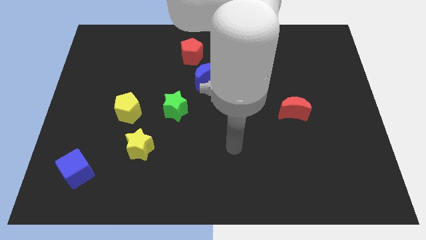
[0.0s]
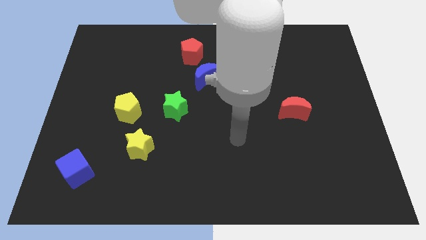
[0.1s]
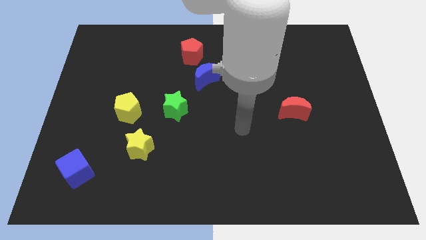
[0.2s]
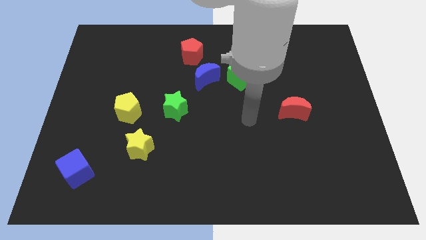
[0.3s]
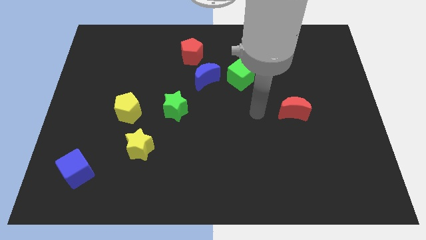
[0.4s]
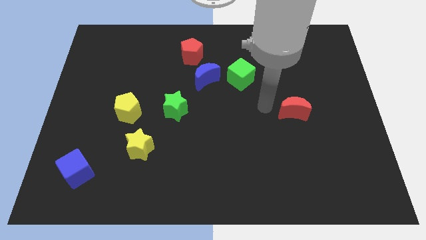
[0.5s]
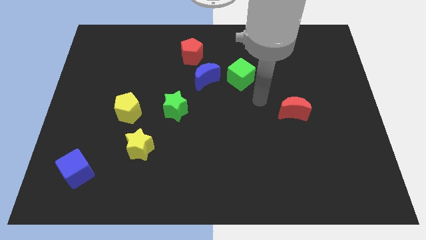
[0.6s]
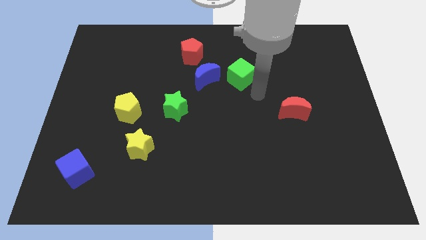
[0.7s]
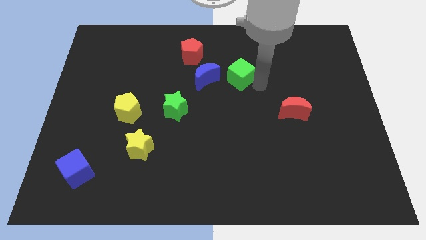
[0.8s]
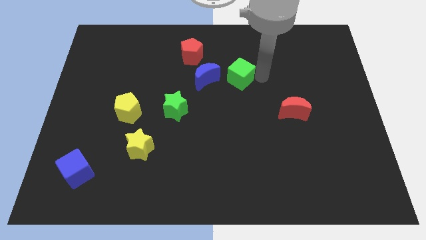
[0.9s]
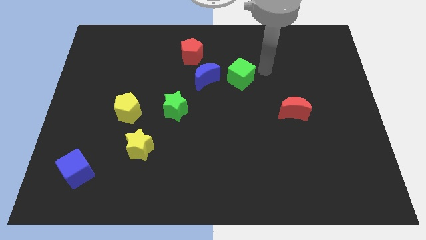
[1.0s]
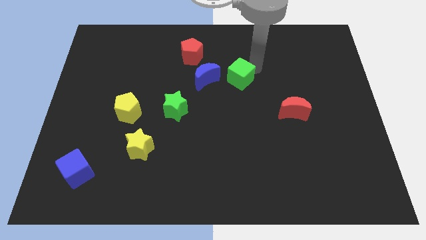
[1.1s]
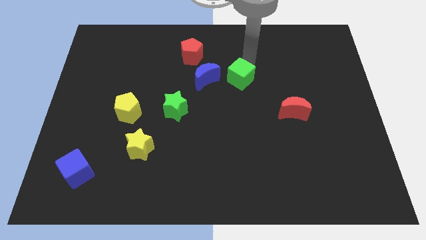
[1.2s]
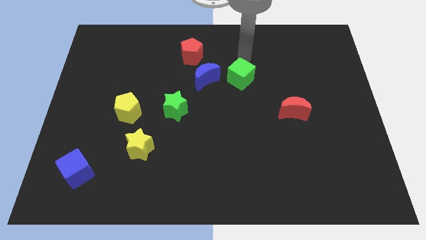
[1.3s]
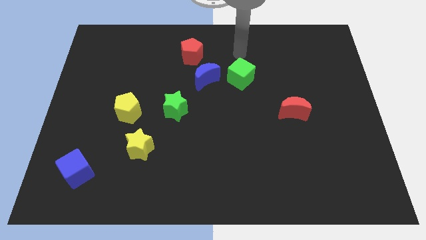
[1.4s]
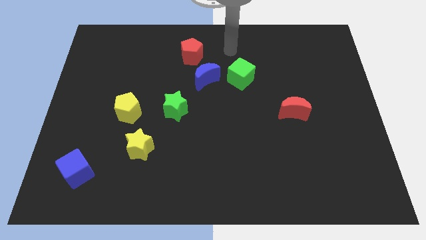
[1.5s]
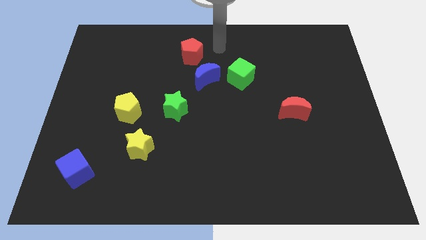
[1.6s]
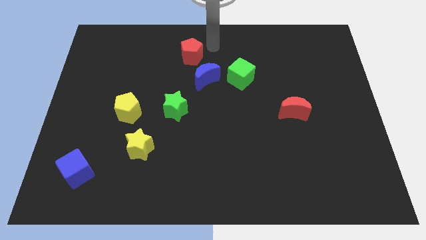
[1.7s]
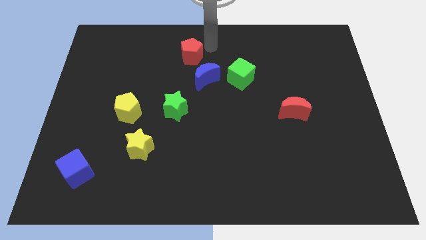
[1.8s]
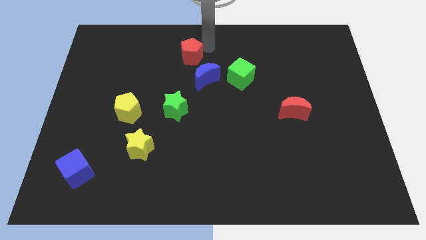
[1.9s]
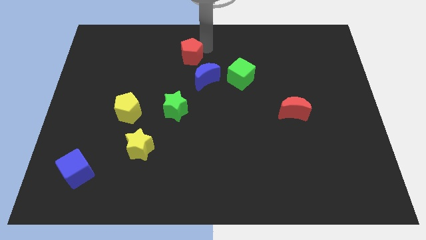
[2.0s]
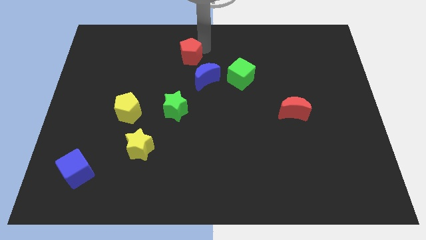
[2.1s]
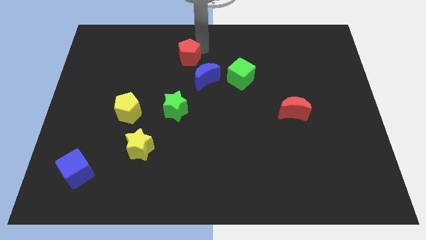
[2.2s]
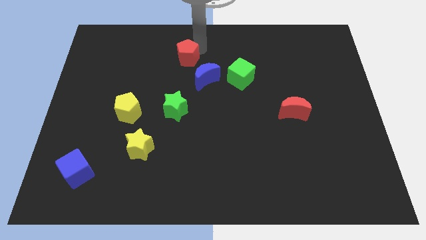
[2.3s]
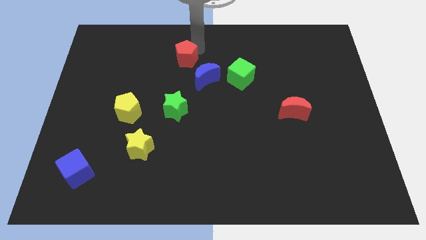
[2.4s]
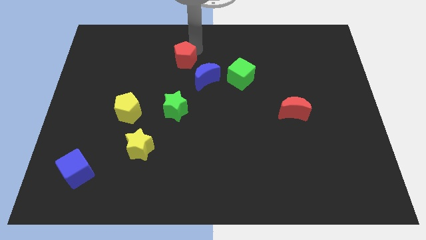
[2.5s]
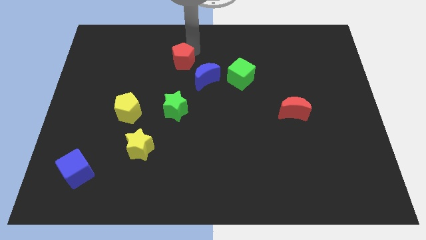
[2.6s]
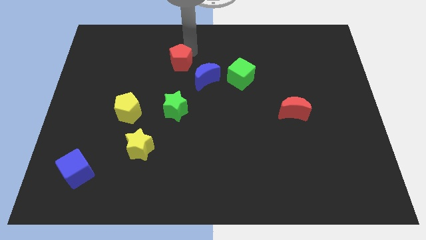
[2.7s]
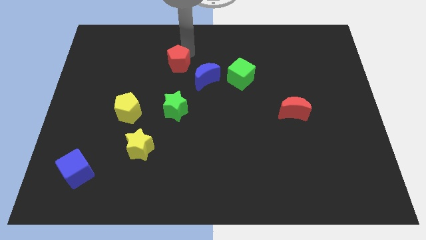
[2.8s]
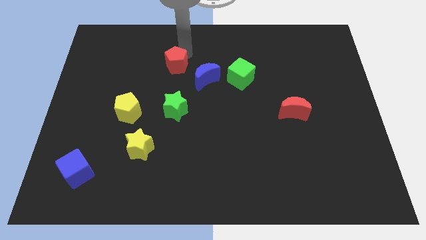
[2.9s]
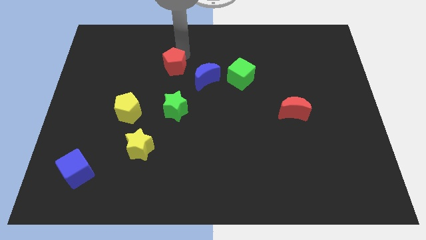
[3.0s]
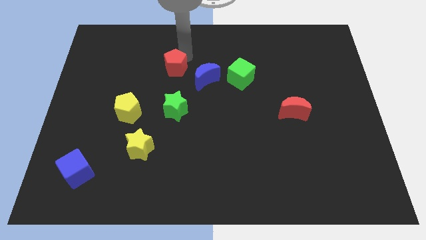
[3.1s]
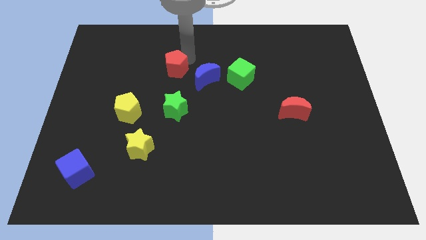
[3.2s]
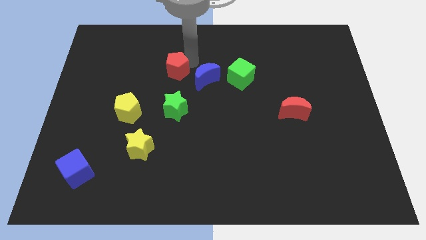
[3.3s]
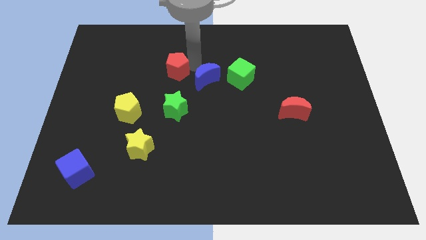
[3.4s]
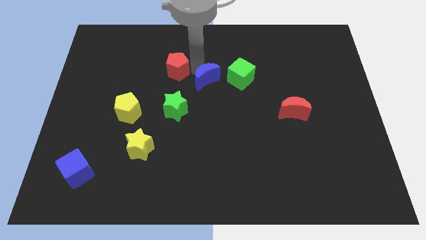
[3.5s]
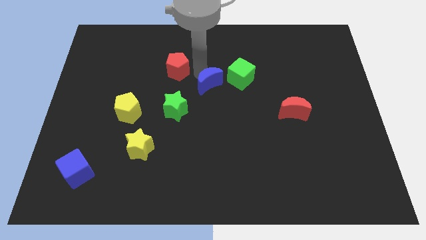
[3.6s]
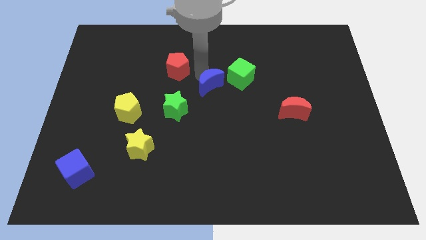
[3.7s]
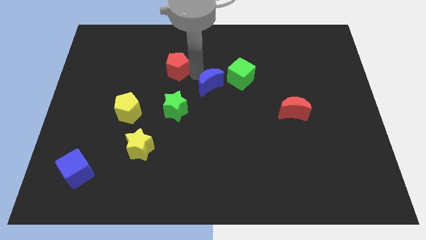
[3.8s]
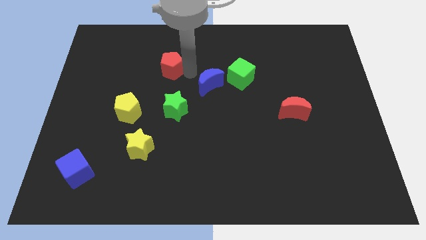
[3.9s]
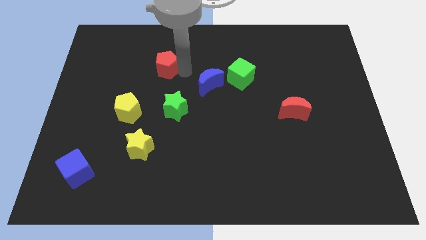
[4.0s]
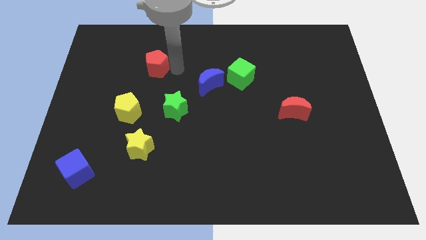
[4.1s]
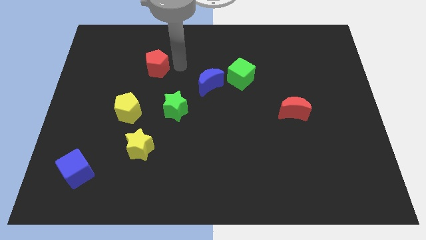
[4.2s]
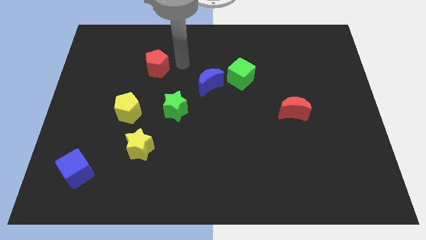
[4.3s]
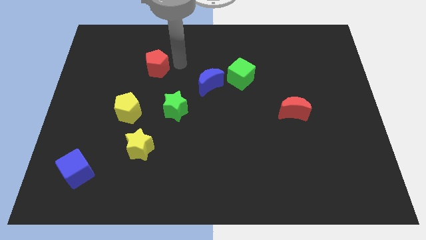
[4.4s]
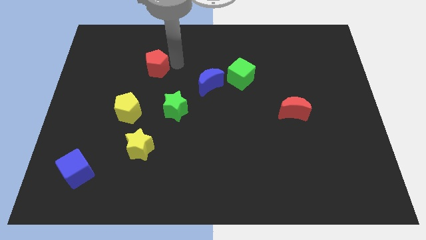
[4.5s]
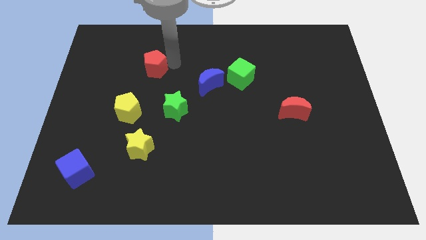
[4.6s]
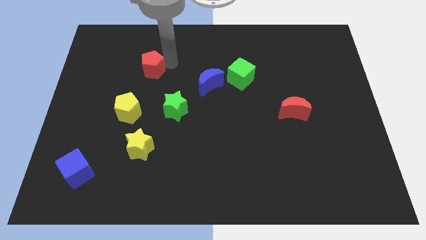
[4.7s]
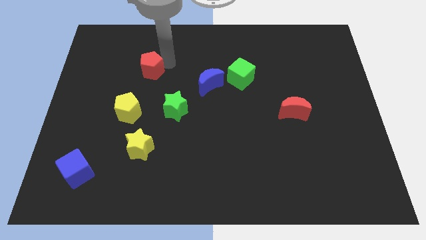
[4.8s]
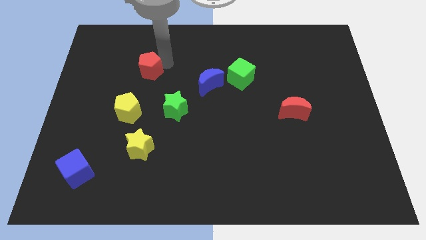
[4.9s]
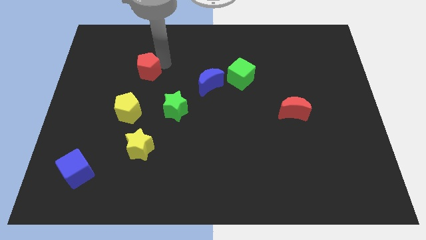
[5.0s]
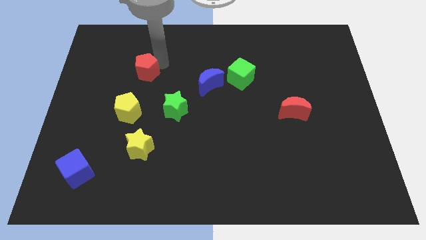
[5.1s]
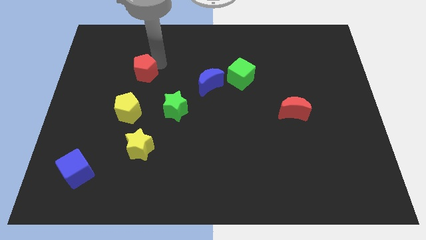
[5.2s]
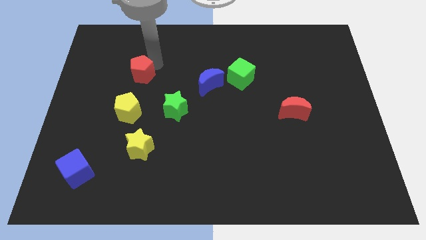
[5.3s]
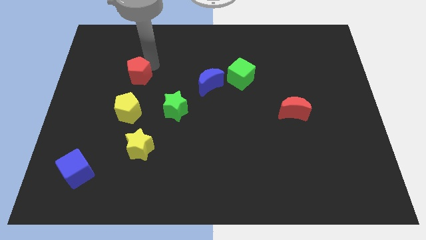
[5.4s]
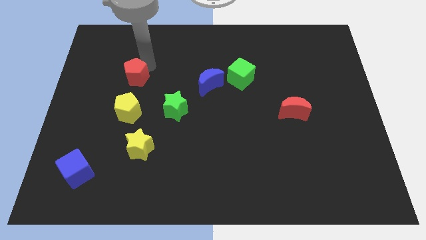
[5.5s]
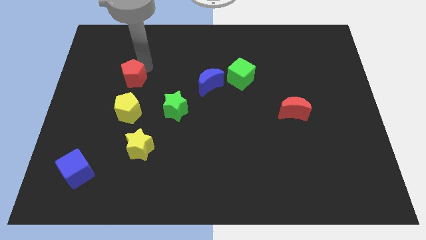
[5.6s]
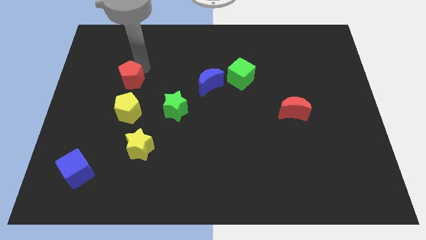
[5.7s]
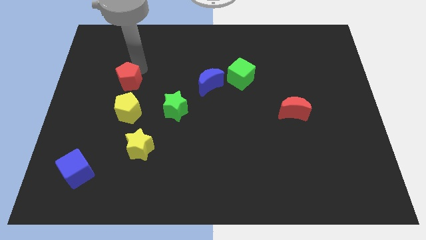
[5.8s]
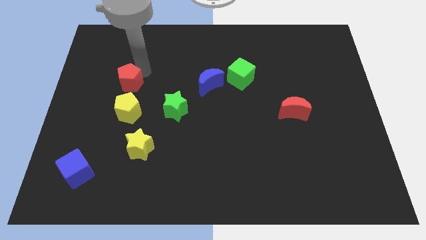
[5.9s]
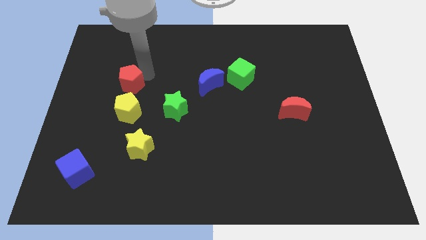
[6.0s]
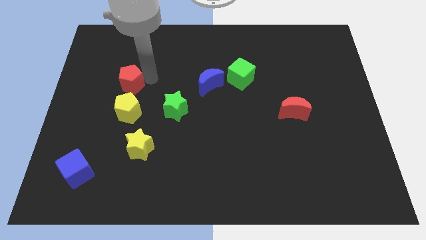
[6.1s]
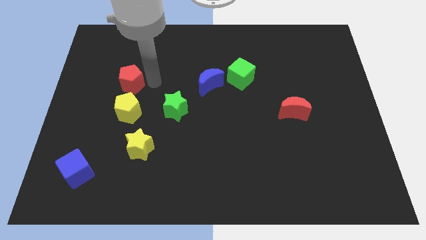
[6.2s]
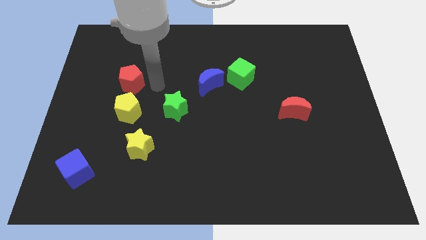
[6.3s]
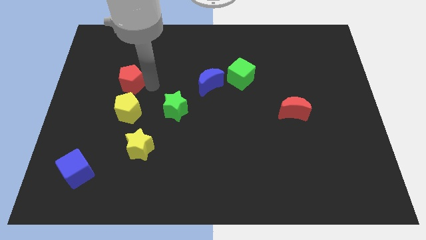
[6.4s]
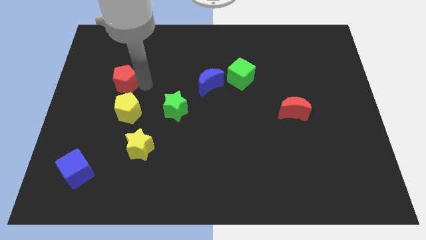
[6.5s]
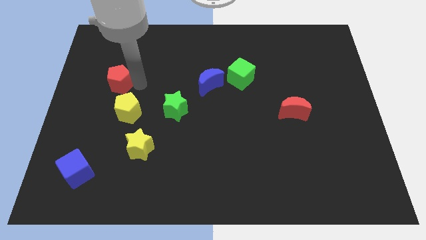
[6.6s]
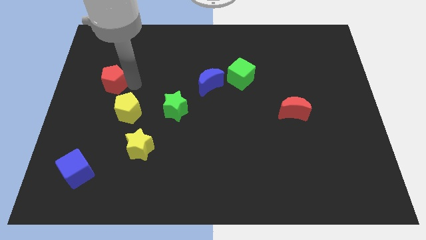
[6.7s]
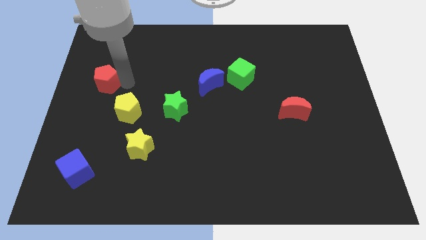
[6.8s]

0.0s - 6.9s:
slide the red pentagon to the left side

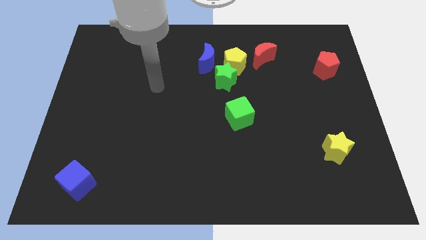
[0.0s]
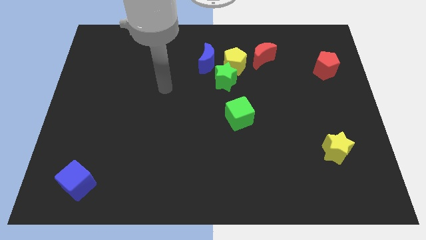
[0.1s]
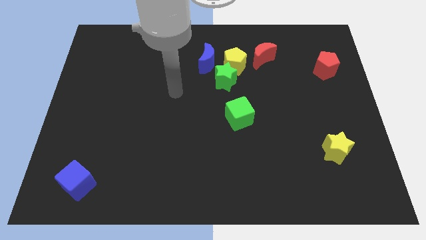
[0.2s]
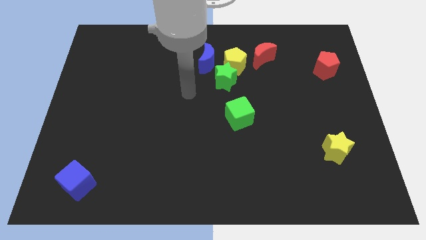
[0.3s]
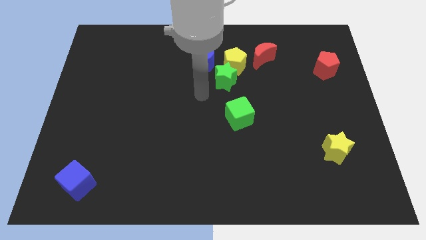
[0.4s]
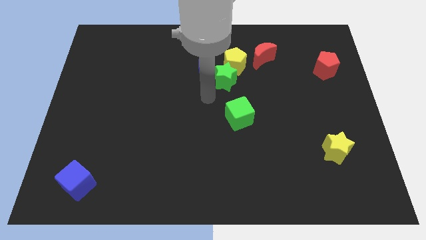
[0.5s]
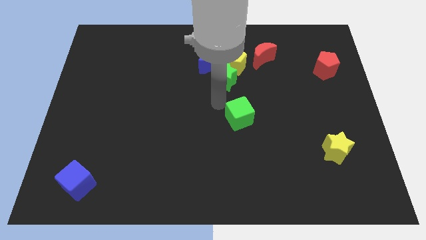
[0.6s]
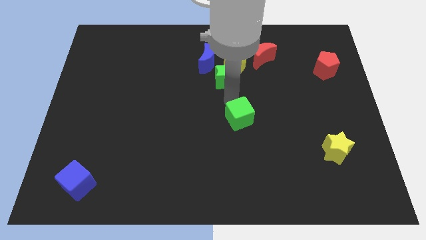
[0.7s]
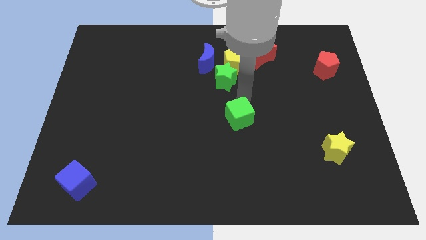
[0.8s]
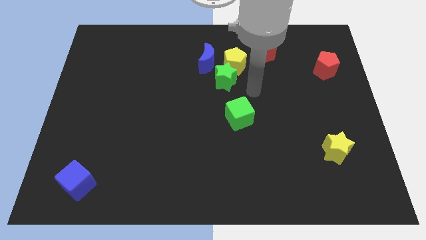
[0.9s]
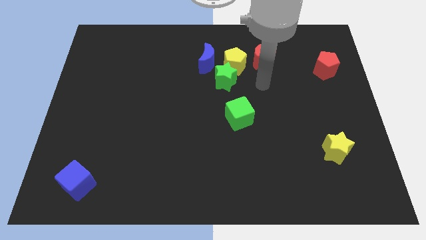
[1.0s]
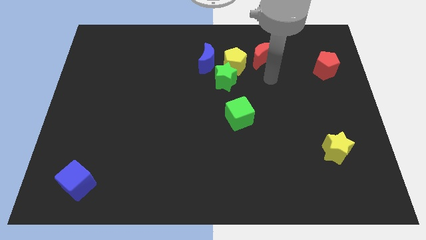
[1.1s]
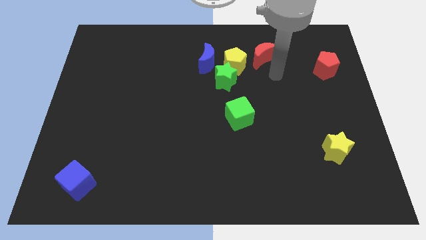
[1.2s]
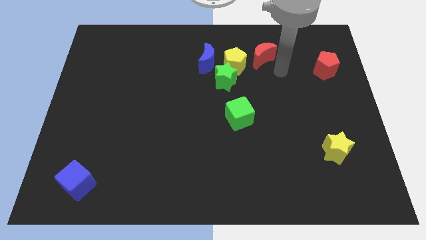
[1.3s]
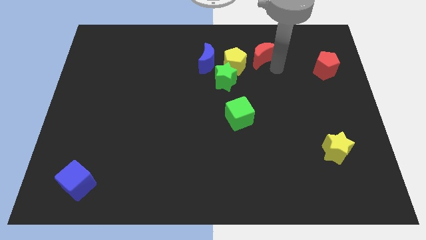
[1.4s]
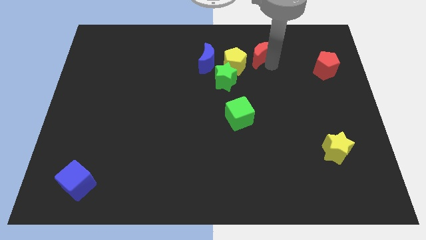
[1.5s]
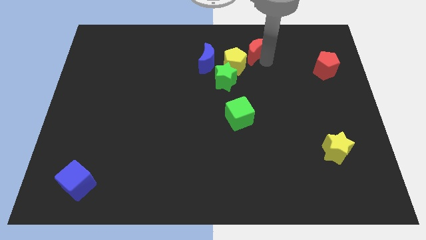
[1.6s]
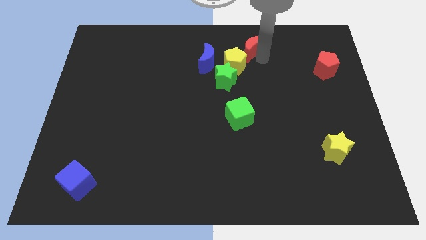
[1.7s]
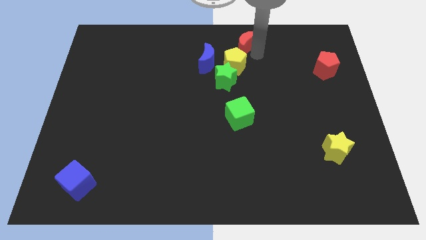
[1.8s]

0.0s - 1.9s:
push the red moon to the top side
